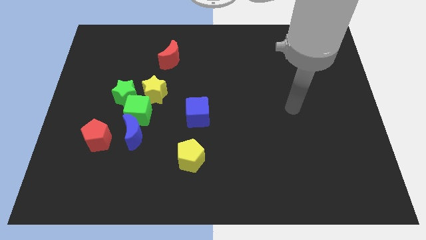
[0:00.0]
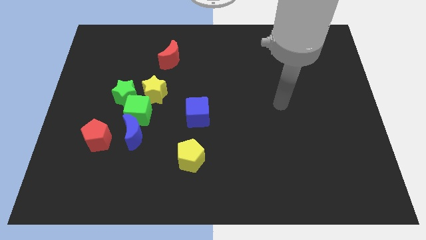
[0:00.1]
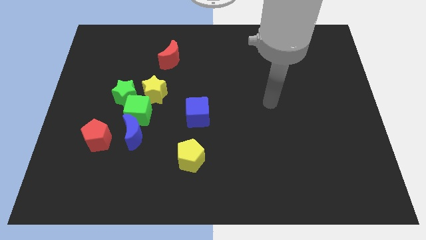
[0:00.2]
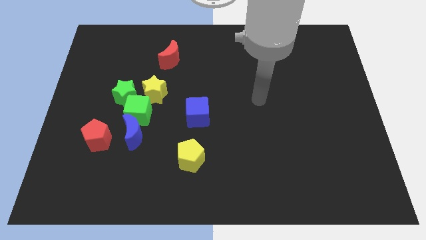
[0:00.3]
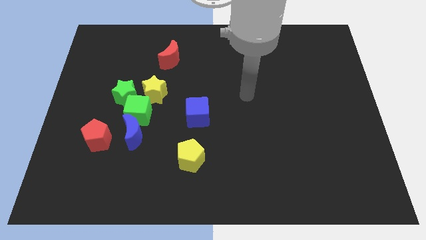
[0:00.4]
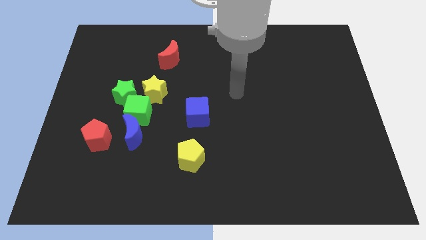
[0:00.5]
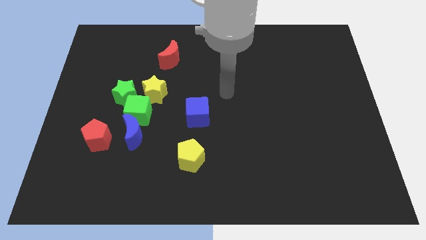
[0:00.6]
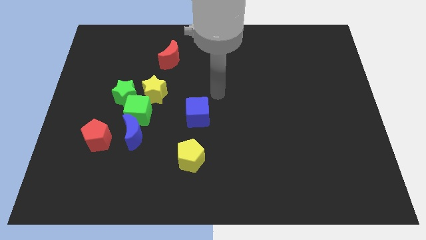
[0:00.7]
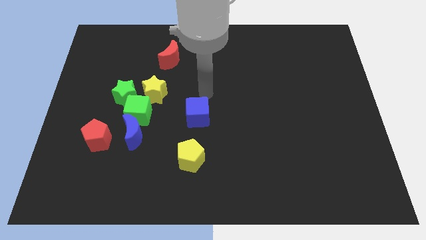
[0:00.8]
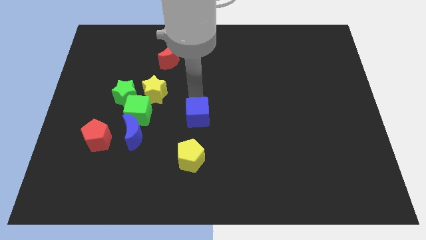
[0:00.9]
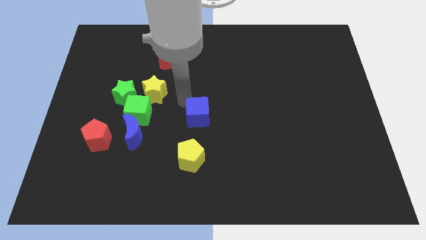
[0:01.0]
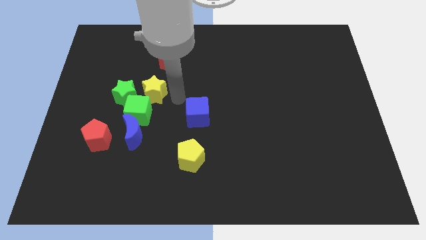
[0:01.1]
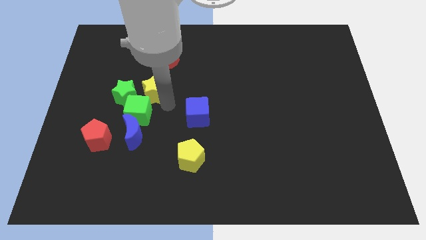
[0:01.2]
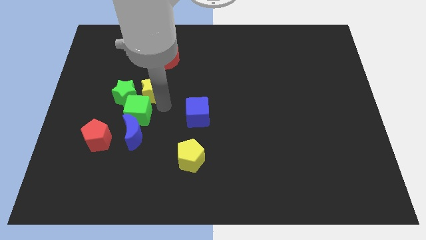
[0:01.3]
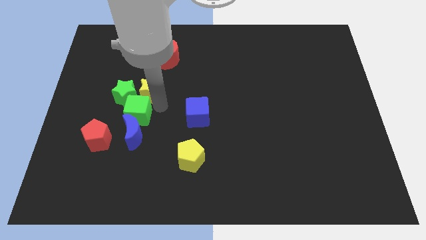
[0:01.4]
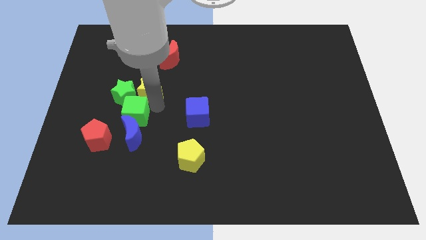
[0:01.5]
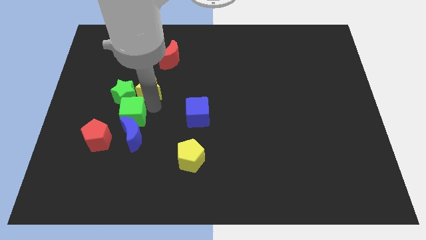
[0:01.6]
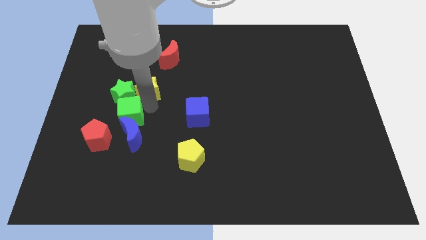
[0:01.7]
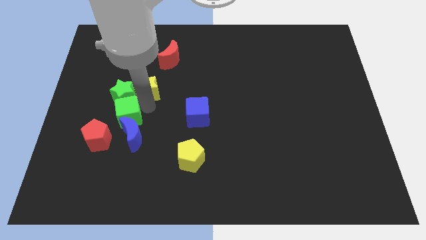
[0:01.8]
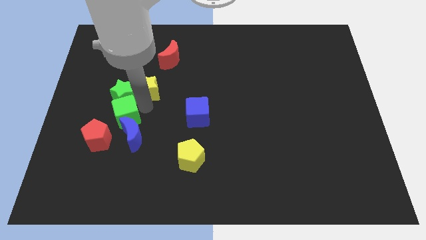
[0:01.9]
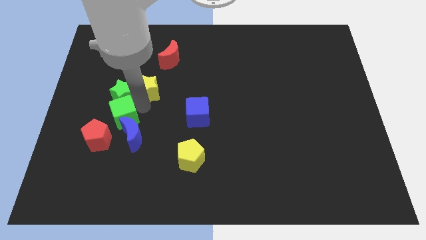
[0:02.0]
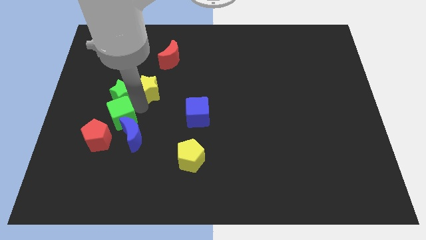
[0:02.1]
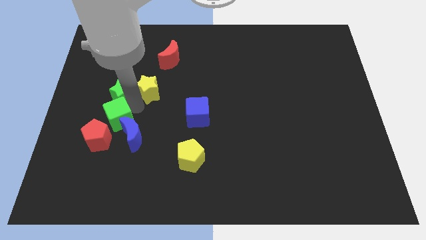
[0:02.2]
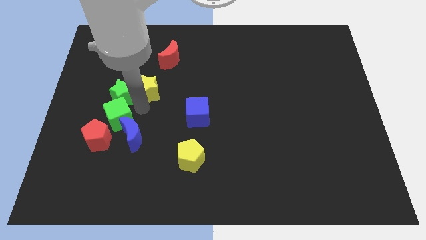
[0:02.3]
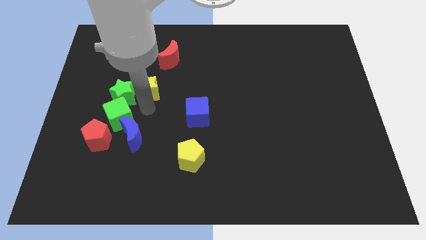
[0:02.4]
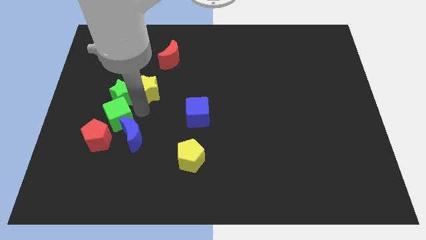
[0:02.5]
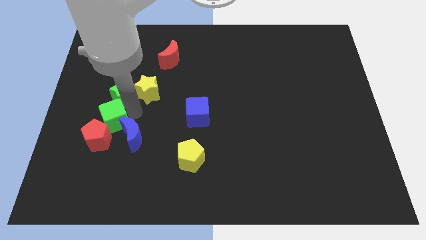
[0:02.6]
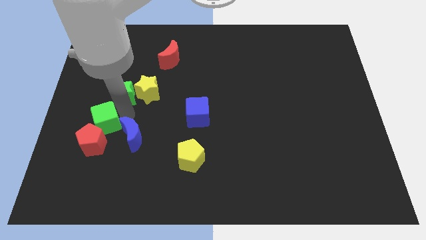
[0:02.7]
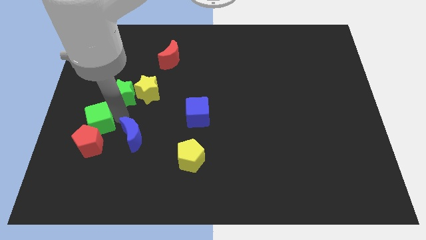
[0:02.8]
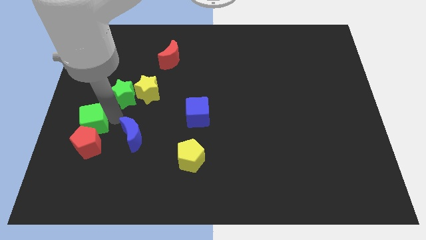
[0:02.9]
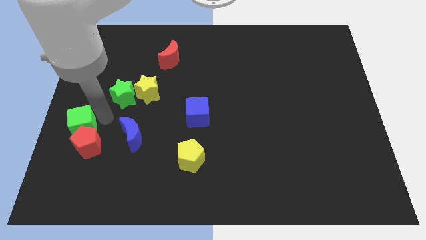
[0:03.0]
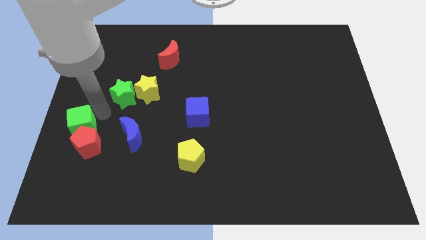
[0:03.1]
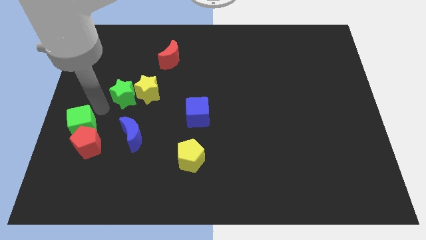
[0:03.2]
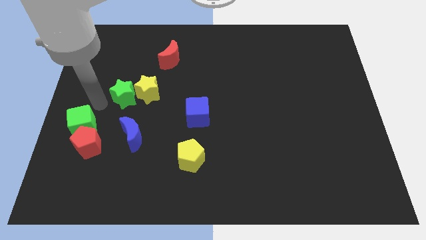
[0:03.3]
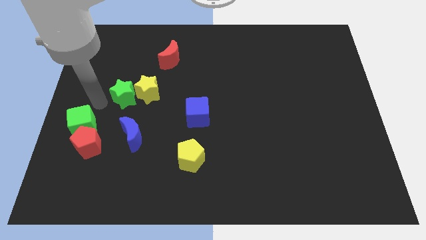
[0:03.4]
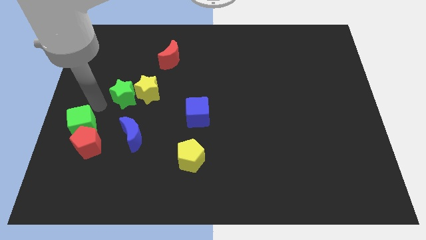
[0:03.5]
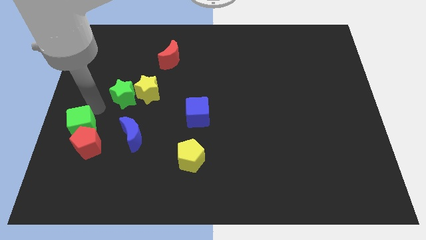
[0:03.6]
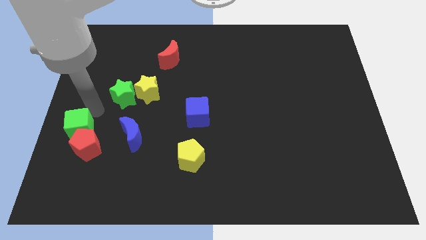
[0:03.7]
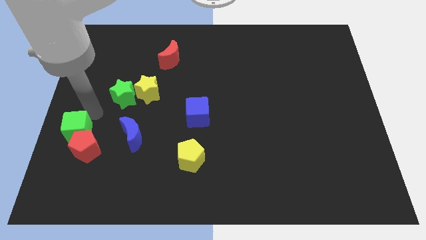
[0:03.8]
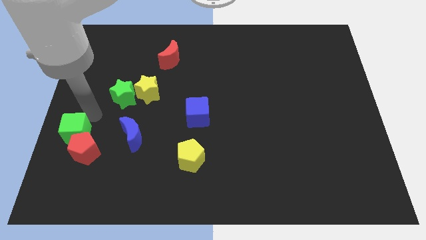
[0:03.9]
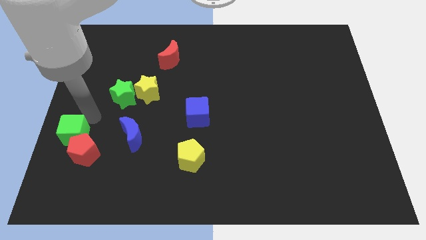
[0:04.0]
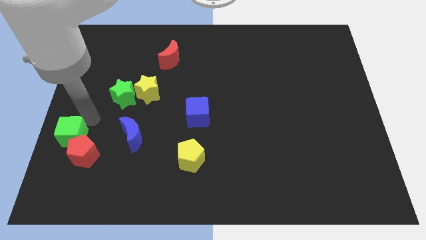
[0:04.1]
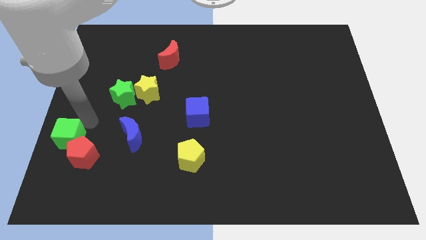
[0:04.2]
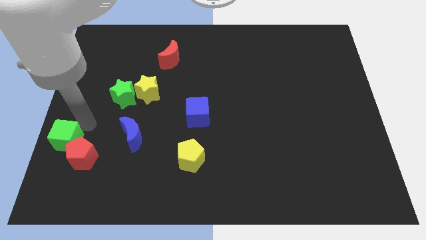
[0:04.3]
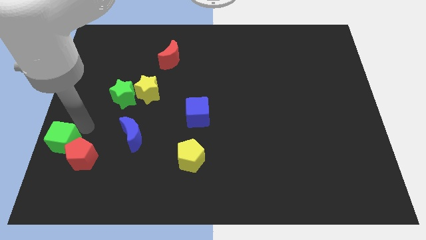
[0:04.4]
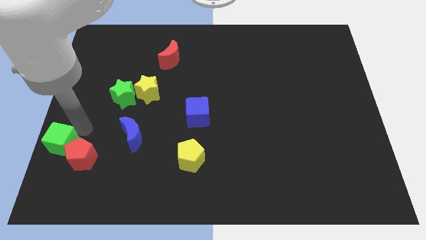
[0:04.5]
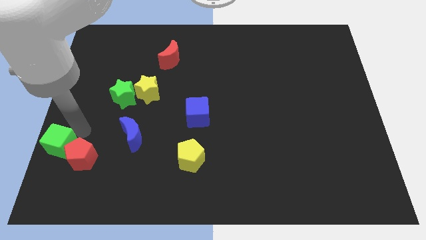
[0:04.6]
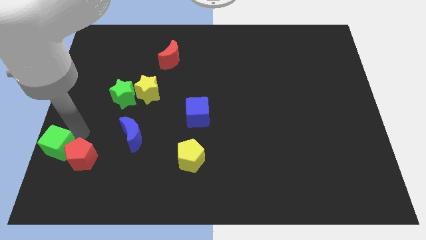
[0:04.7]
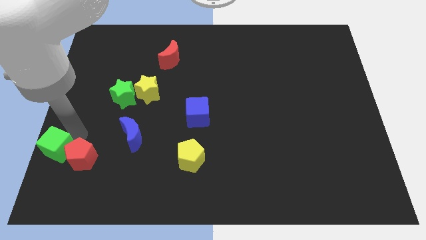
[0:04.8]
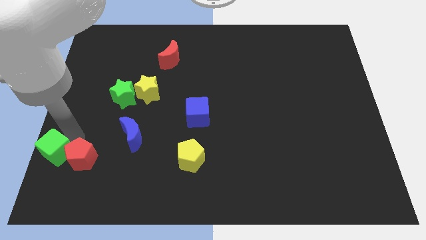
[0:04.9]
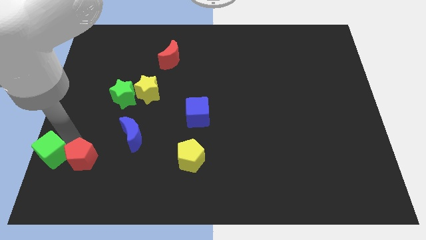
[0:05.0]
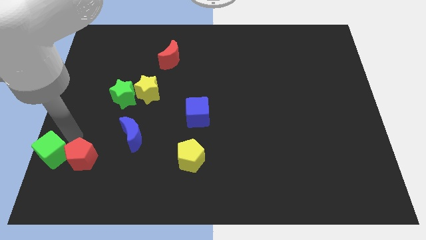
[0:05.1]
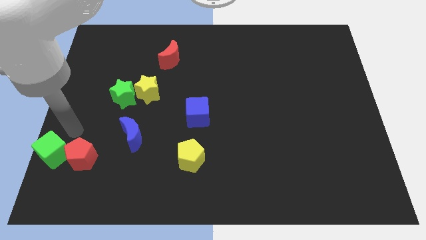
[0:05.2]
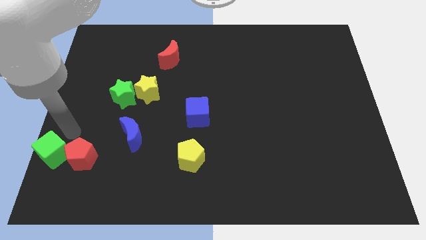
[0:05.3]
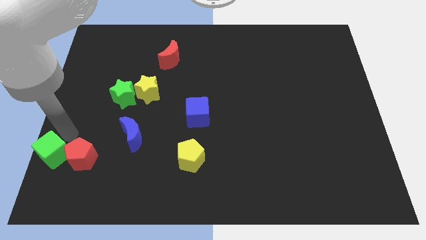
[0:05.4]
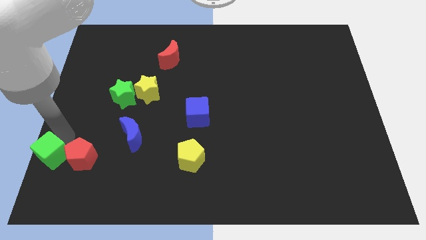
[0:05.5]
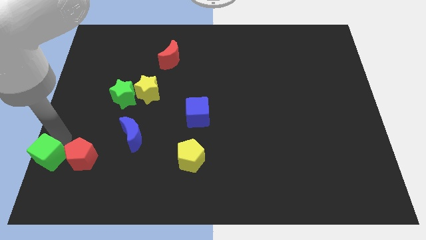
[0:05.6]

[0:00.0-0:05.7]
move the green cube to the bottom left of the board

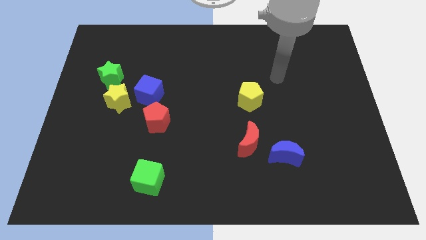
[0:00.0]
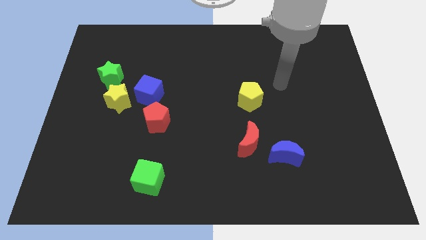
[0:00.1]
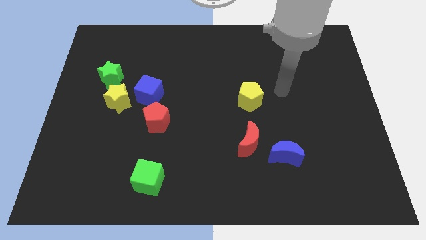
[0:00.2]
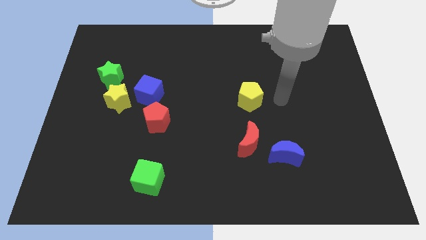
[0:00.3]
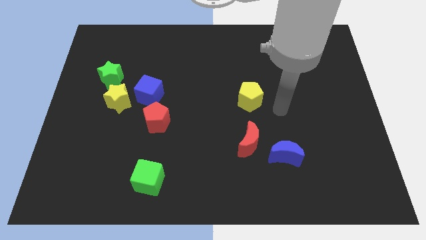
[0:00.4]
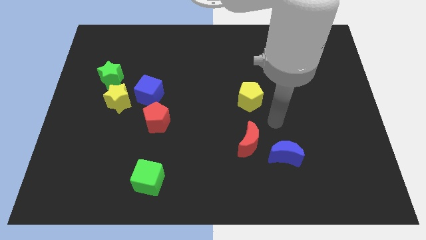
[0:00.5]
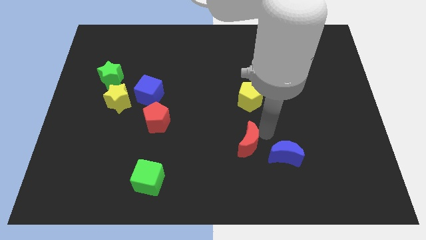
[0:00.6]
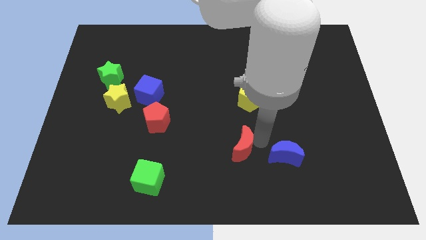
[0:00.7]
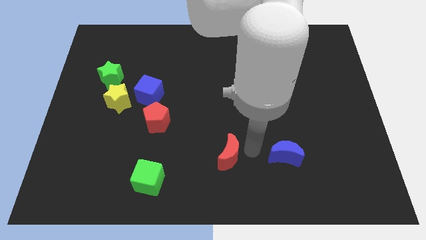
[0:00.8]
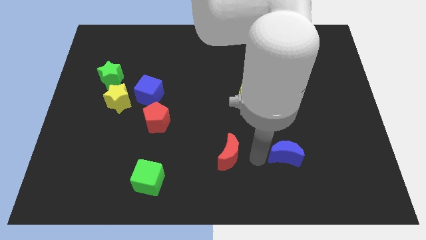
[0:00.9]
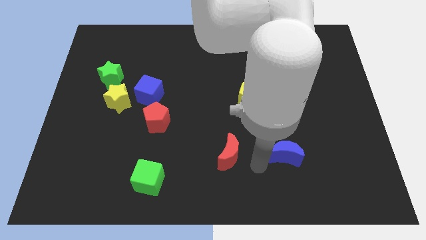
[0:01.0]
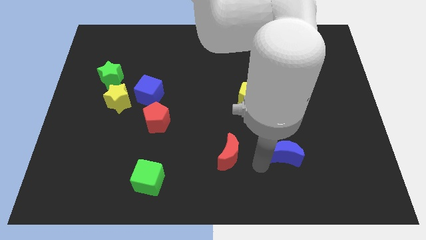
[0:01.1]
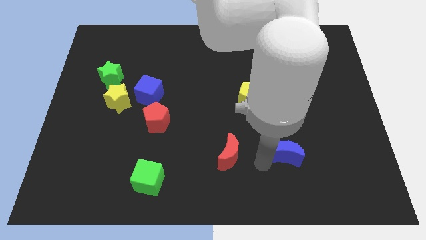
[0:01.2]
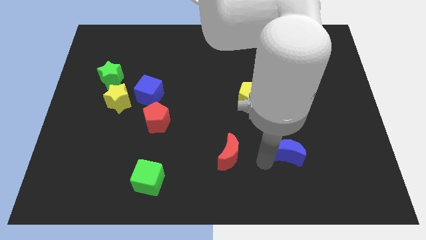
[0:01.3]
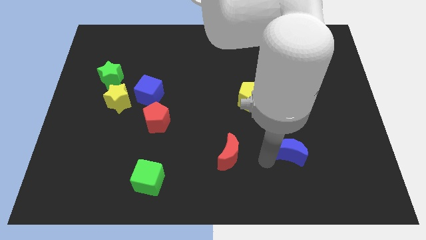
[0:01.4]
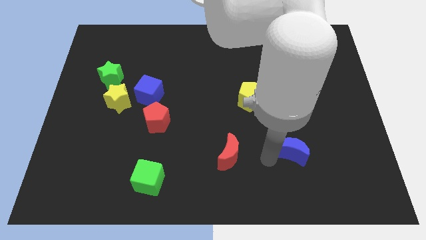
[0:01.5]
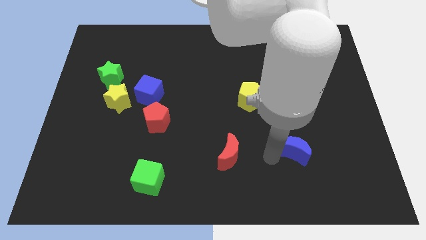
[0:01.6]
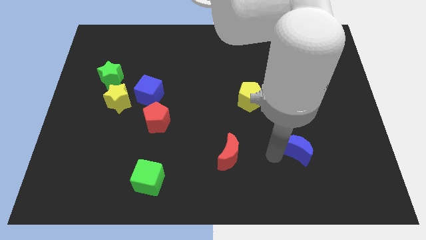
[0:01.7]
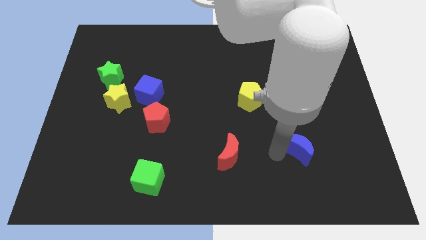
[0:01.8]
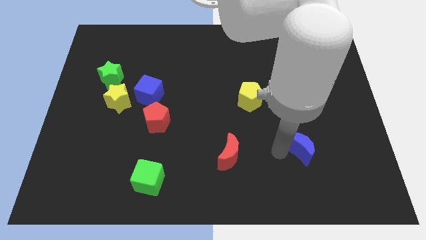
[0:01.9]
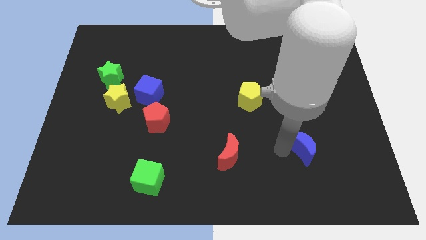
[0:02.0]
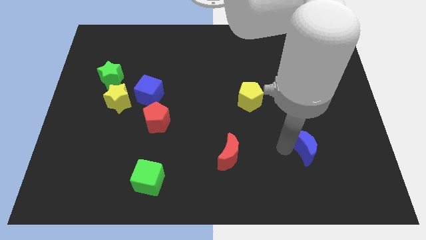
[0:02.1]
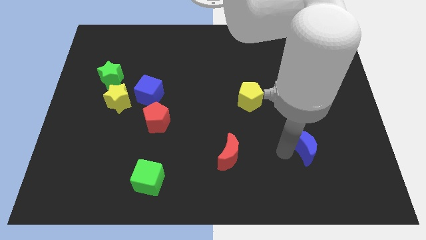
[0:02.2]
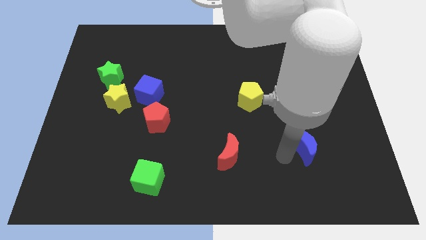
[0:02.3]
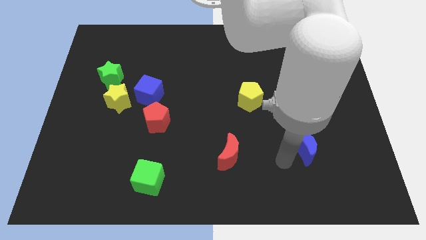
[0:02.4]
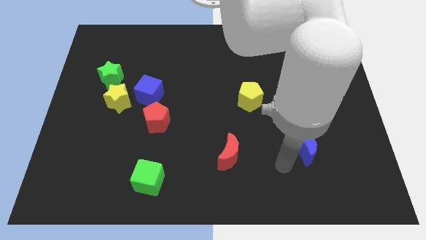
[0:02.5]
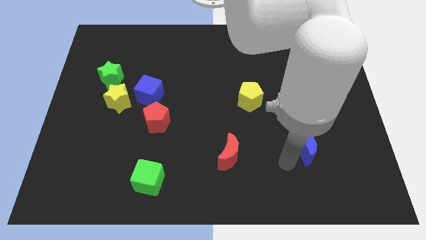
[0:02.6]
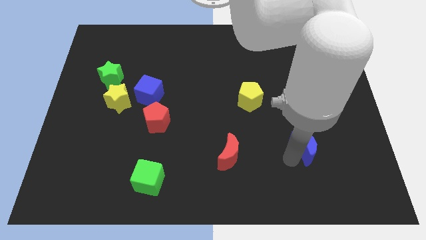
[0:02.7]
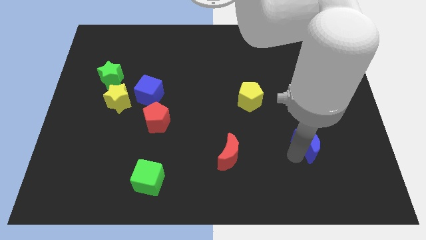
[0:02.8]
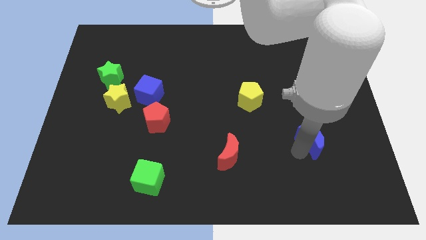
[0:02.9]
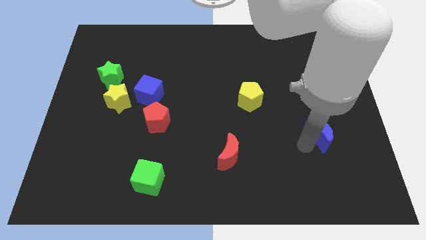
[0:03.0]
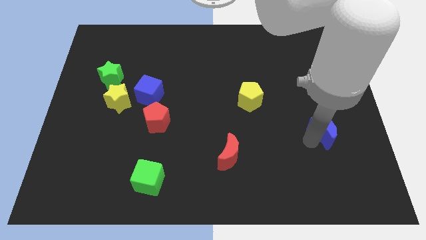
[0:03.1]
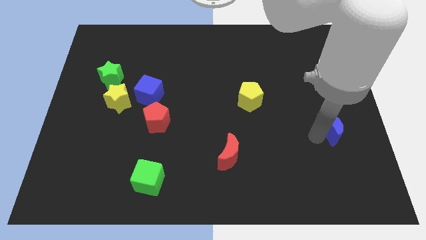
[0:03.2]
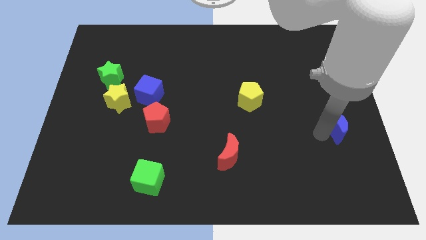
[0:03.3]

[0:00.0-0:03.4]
push the blue moon to the center right
